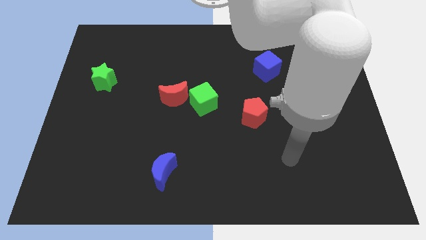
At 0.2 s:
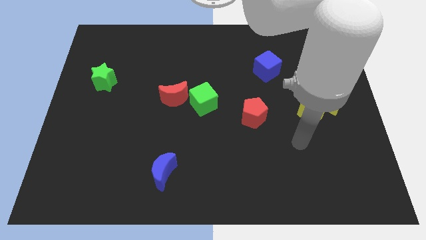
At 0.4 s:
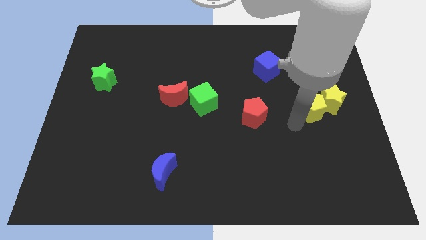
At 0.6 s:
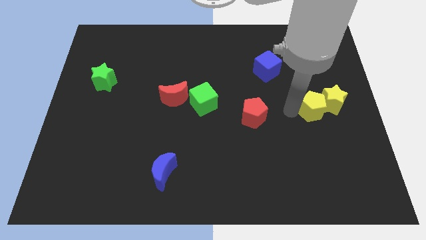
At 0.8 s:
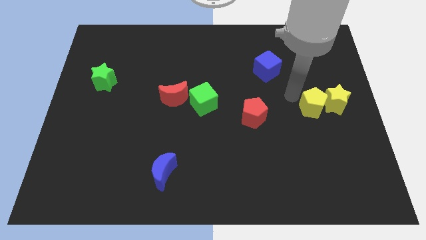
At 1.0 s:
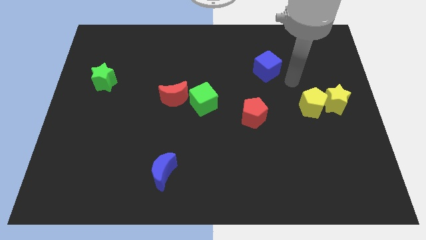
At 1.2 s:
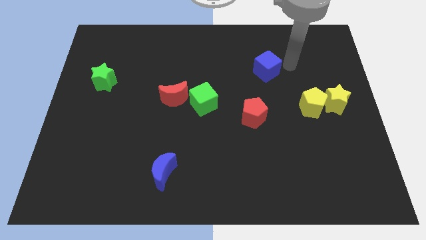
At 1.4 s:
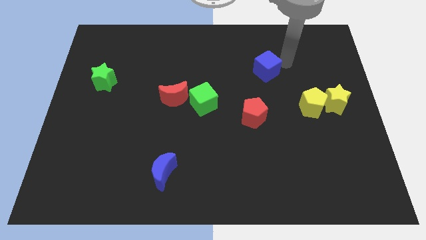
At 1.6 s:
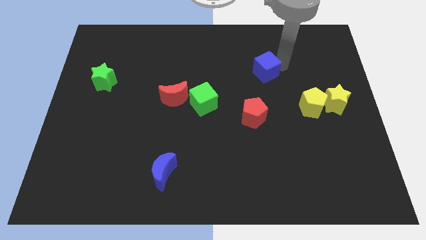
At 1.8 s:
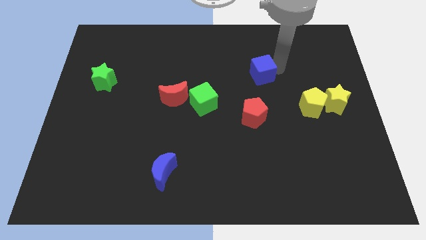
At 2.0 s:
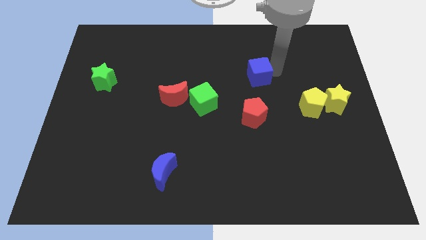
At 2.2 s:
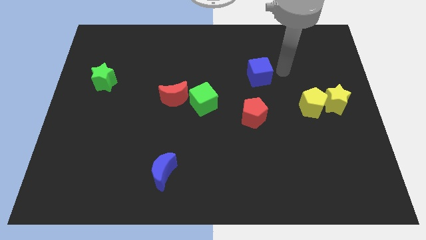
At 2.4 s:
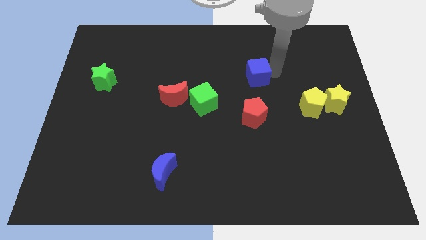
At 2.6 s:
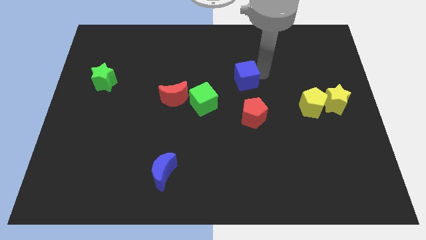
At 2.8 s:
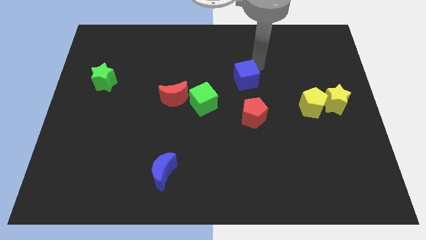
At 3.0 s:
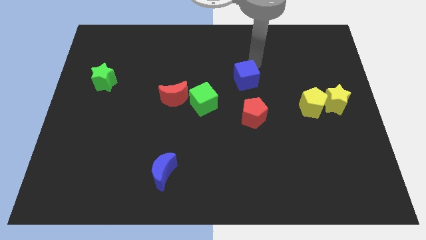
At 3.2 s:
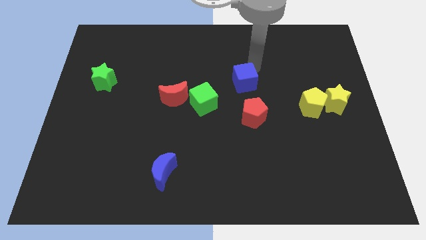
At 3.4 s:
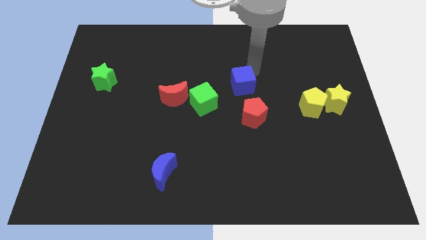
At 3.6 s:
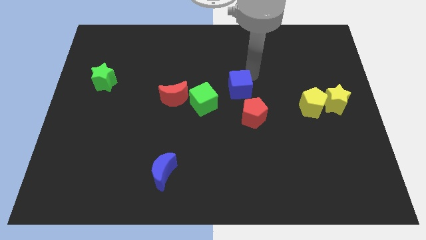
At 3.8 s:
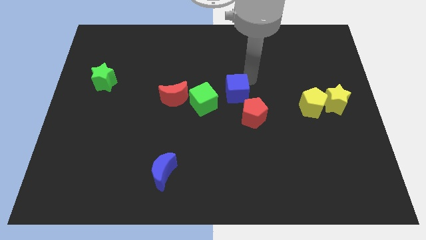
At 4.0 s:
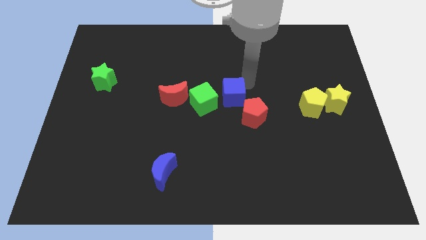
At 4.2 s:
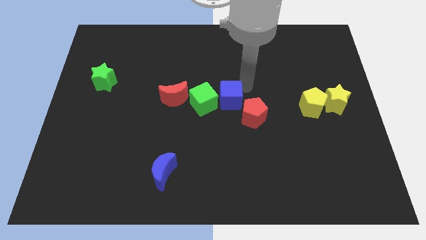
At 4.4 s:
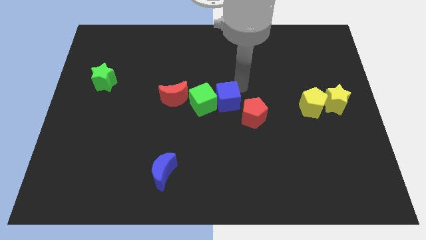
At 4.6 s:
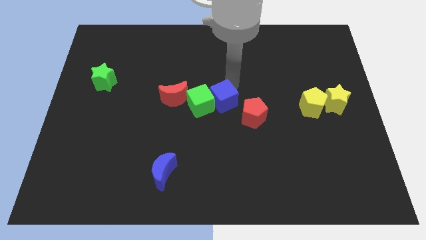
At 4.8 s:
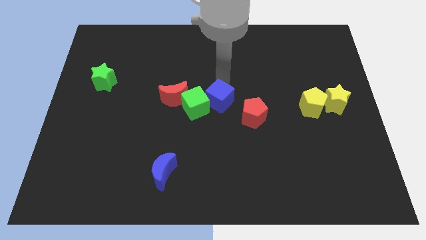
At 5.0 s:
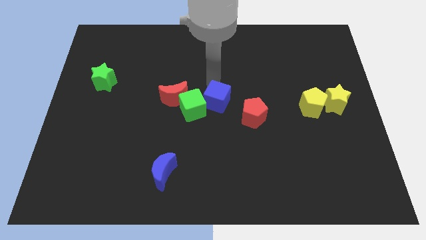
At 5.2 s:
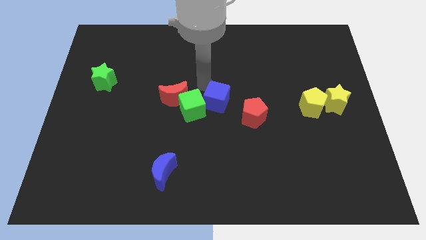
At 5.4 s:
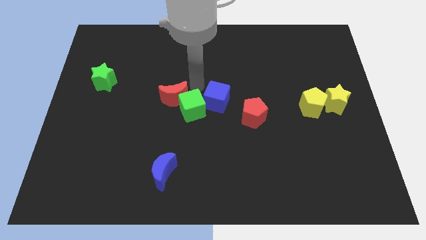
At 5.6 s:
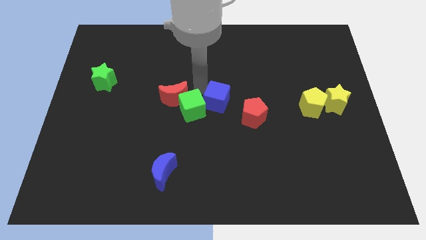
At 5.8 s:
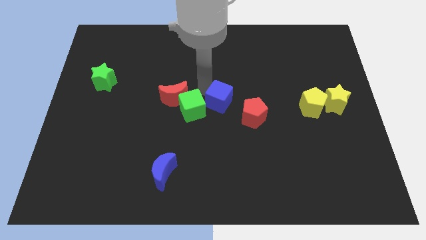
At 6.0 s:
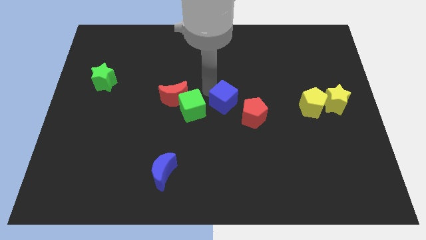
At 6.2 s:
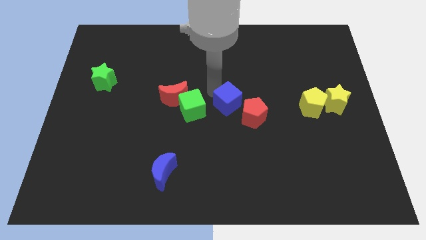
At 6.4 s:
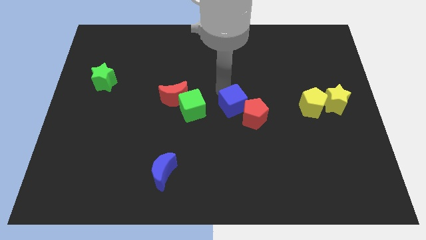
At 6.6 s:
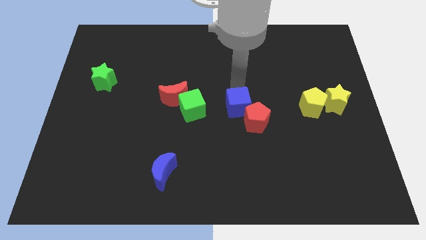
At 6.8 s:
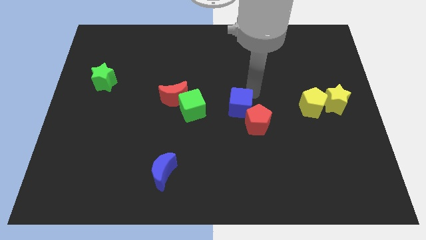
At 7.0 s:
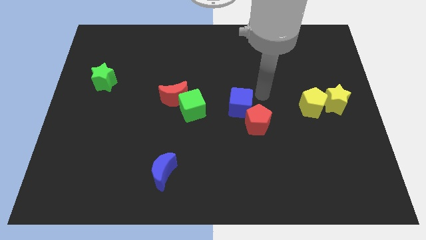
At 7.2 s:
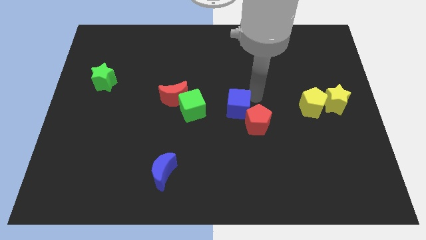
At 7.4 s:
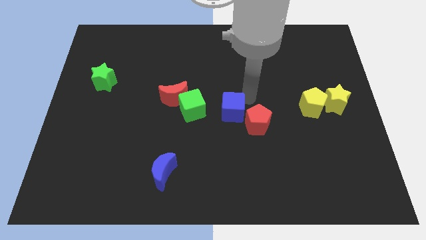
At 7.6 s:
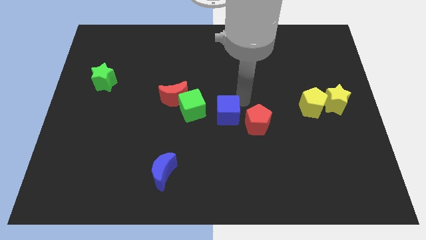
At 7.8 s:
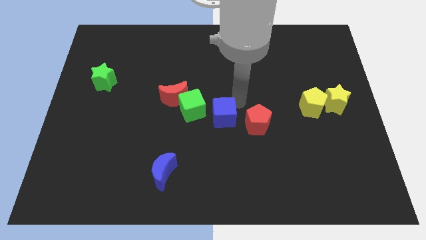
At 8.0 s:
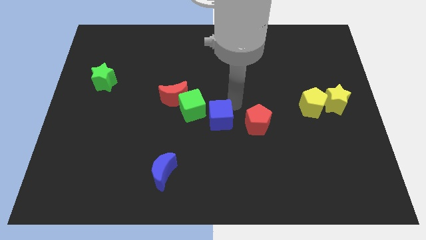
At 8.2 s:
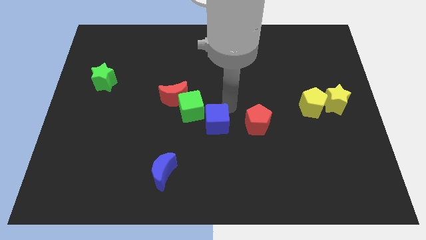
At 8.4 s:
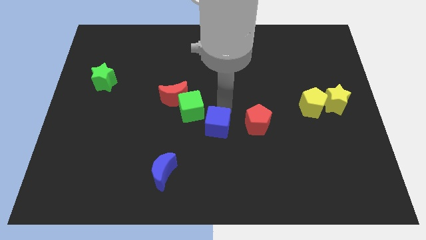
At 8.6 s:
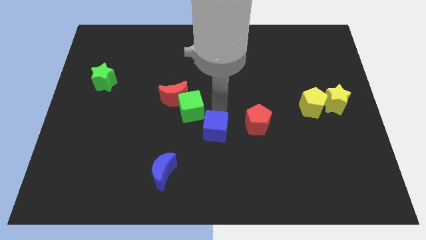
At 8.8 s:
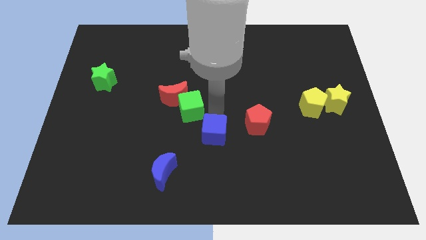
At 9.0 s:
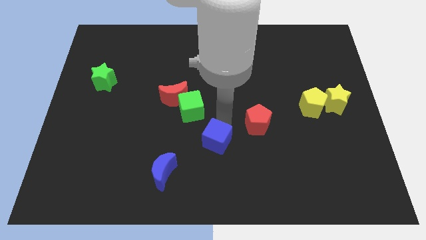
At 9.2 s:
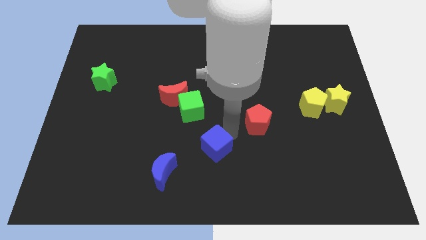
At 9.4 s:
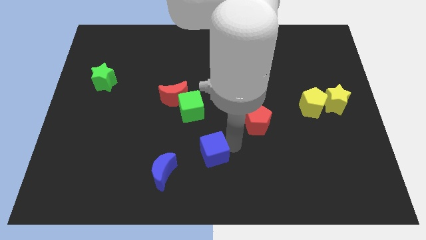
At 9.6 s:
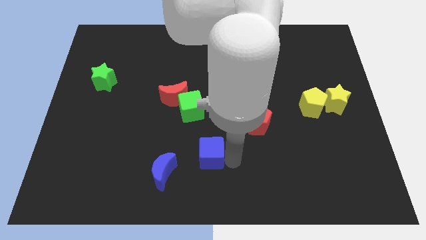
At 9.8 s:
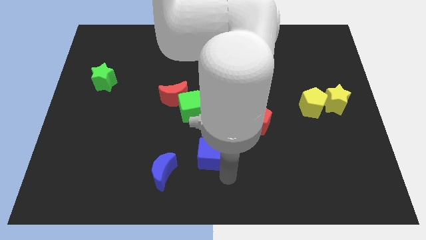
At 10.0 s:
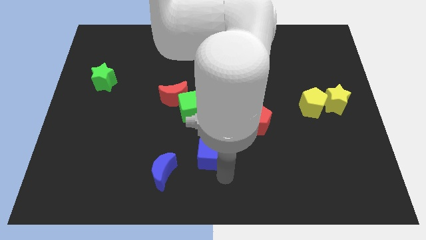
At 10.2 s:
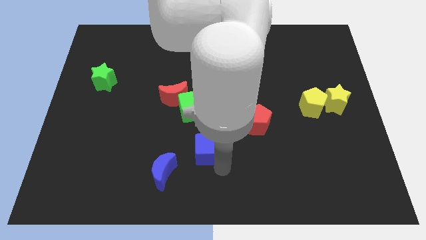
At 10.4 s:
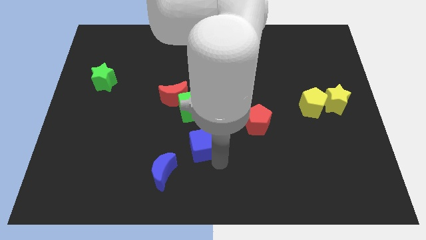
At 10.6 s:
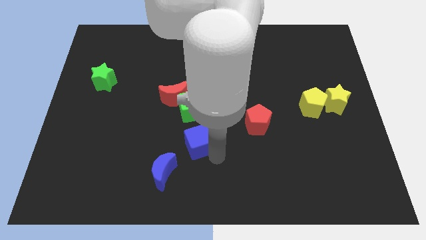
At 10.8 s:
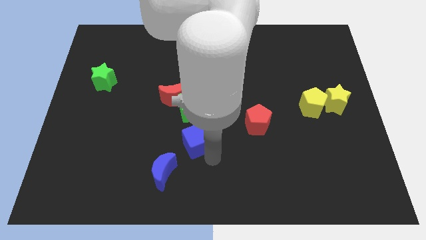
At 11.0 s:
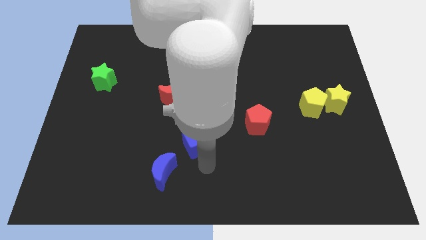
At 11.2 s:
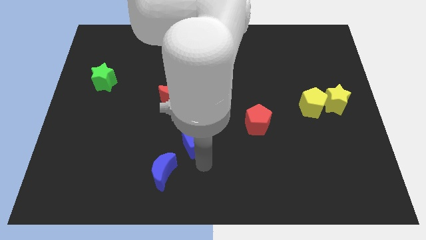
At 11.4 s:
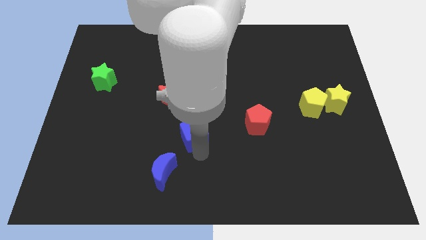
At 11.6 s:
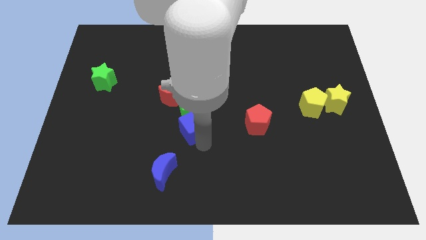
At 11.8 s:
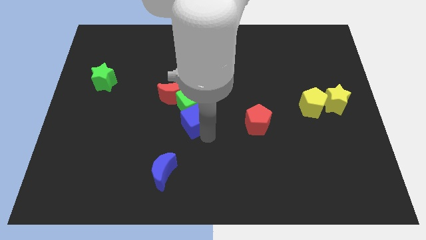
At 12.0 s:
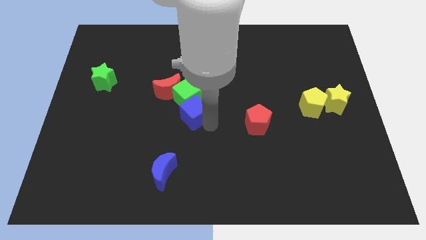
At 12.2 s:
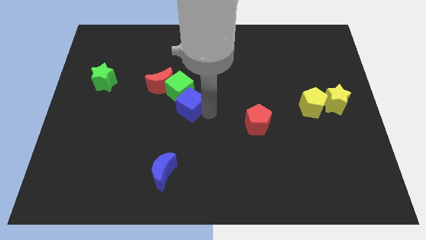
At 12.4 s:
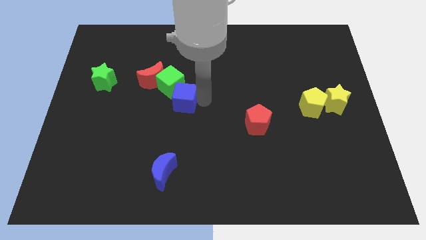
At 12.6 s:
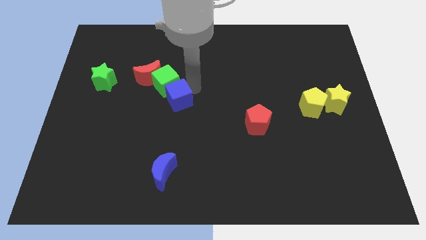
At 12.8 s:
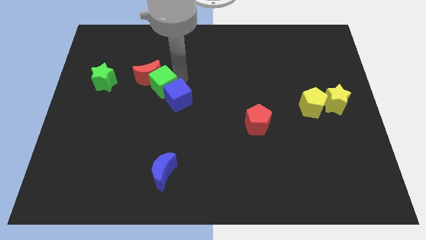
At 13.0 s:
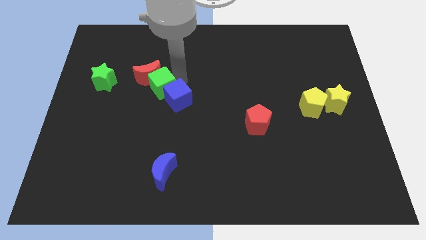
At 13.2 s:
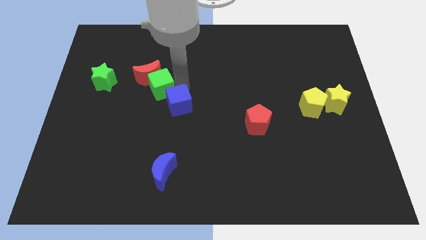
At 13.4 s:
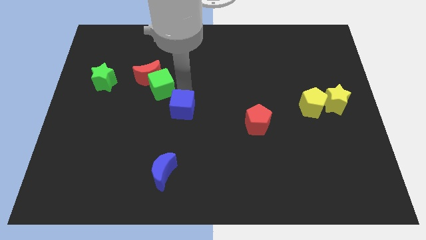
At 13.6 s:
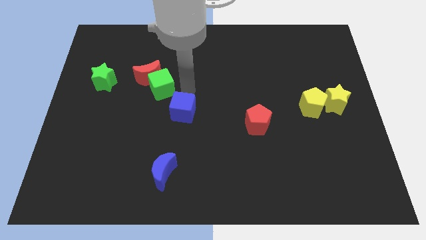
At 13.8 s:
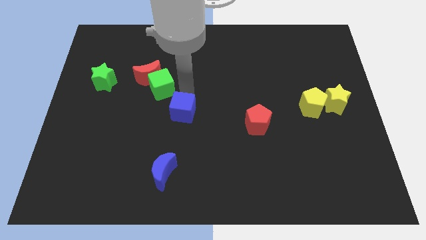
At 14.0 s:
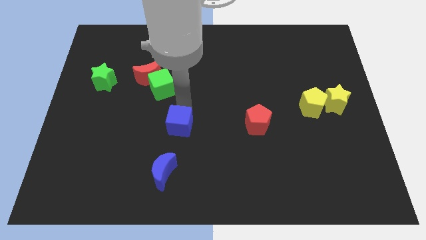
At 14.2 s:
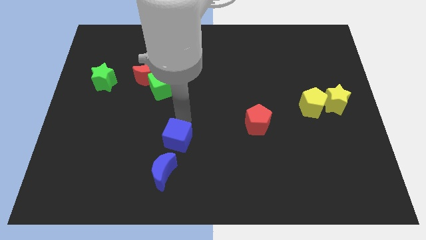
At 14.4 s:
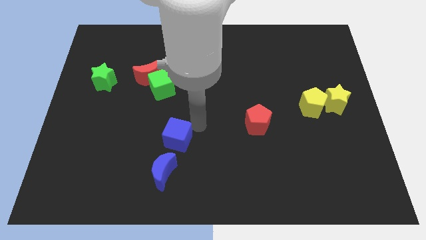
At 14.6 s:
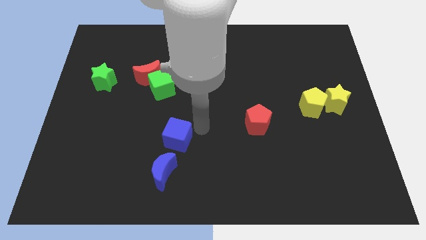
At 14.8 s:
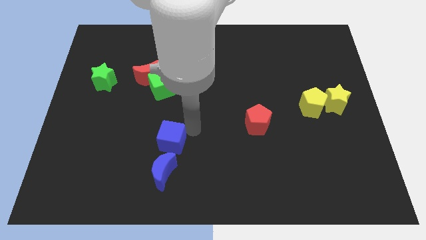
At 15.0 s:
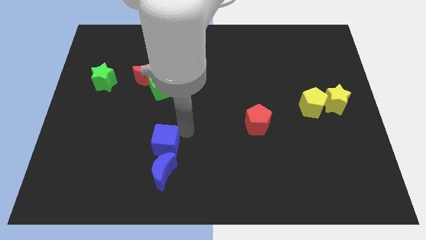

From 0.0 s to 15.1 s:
slide the blue cube to the top left of the blue moon

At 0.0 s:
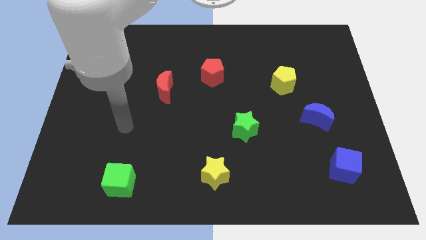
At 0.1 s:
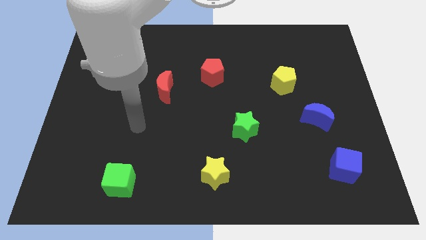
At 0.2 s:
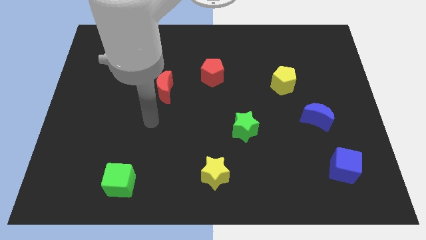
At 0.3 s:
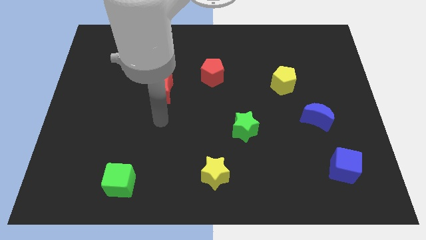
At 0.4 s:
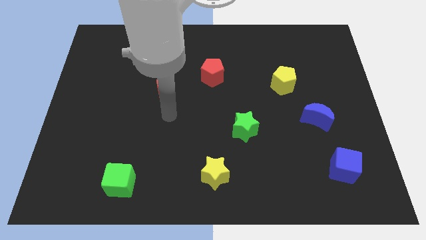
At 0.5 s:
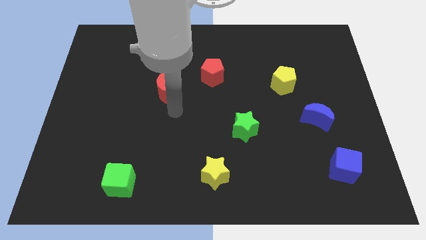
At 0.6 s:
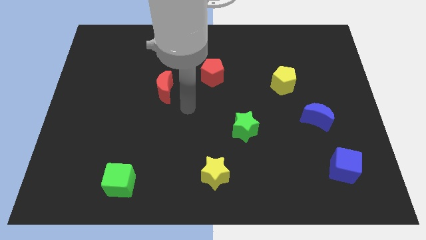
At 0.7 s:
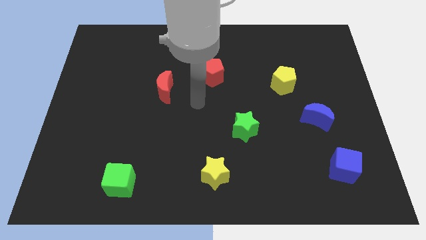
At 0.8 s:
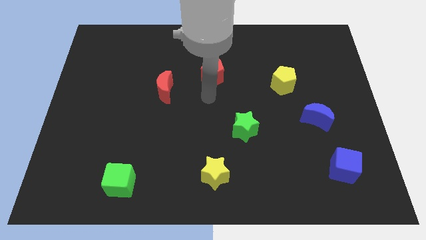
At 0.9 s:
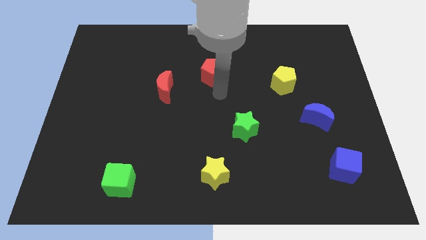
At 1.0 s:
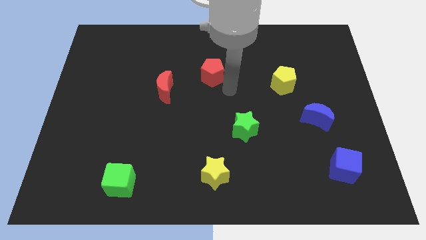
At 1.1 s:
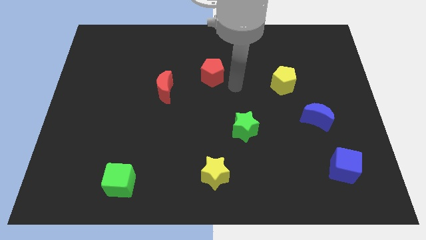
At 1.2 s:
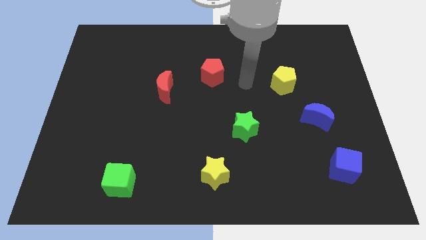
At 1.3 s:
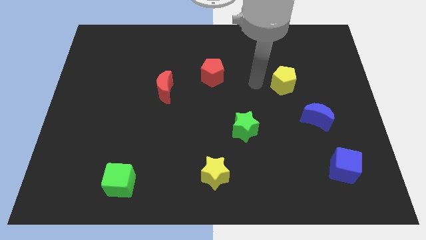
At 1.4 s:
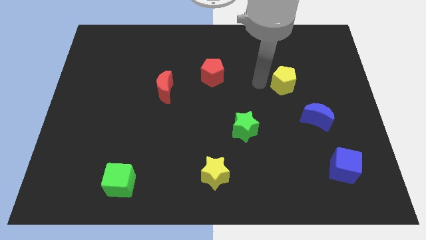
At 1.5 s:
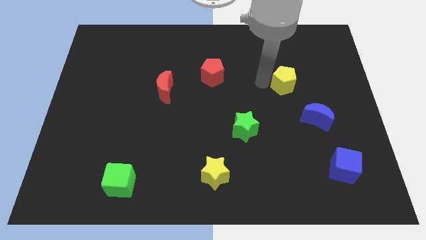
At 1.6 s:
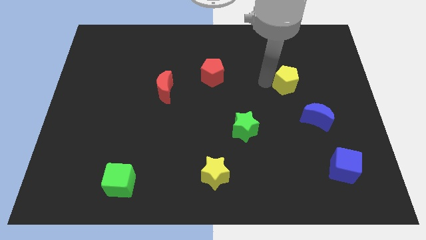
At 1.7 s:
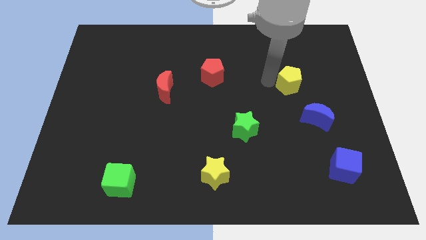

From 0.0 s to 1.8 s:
slide the yellow pentagon to the top of the blue moon
